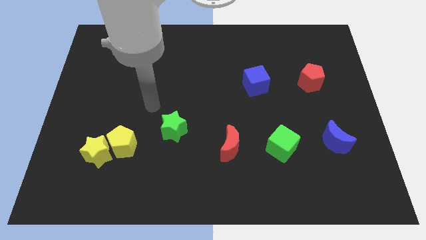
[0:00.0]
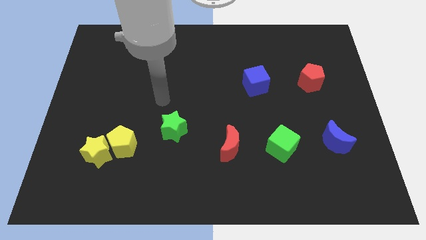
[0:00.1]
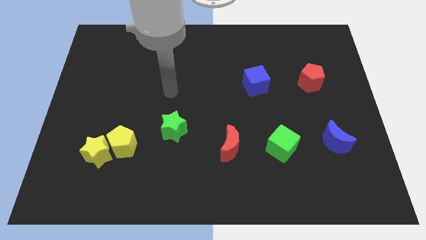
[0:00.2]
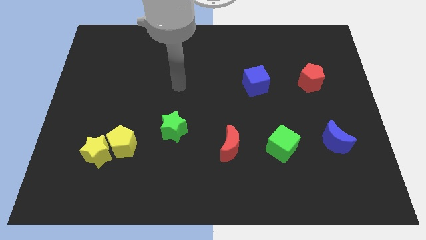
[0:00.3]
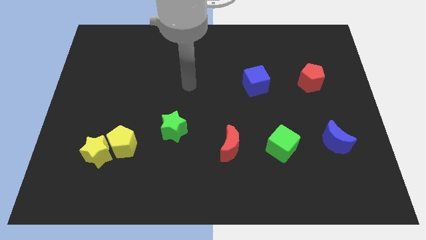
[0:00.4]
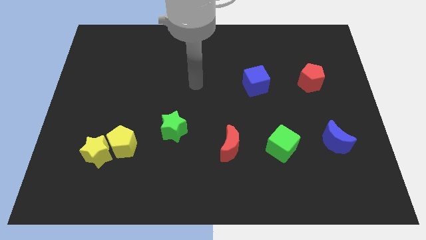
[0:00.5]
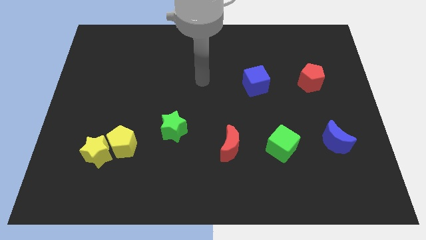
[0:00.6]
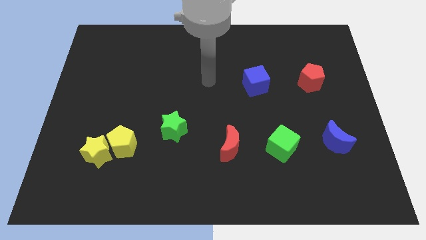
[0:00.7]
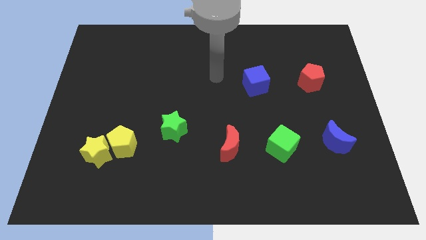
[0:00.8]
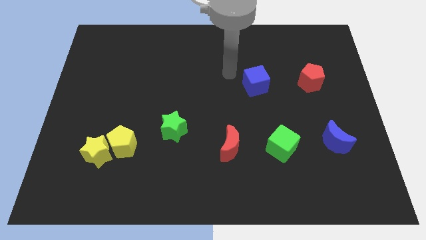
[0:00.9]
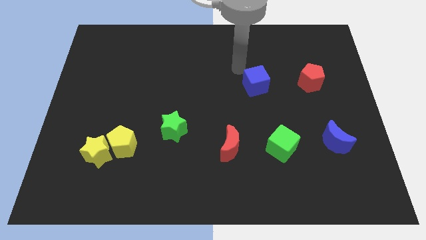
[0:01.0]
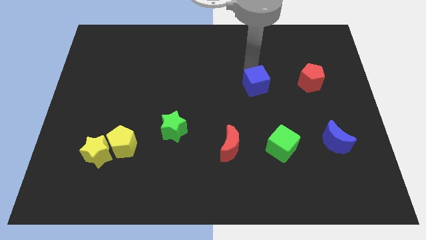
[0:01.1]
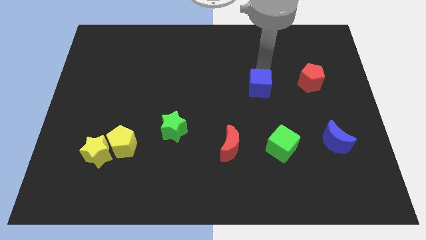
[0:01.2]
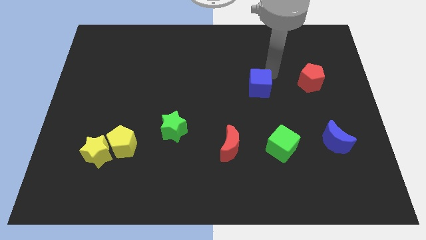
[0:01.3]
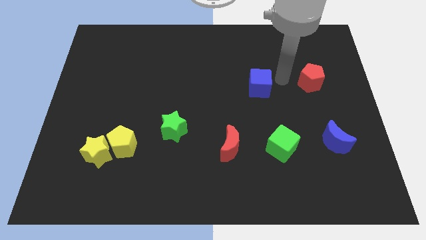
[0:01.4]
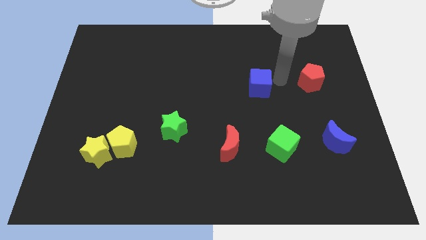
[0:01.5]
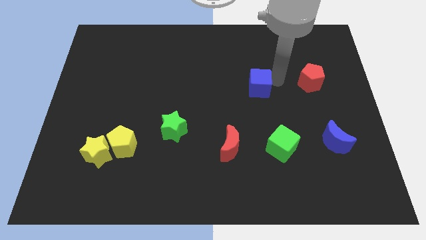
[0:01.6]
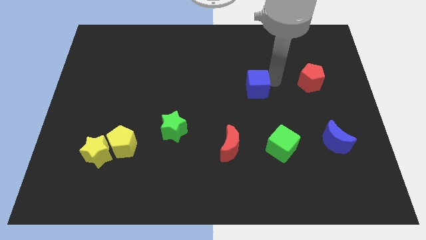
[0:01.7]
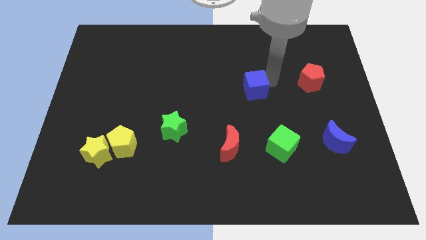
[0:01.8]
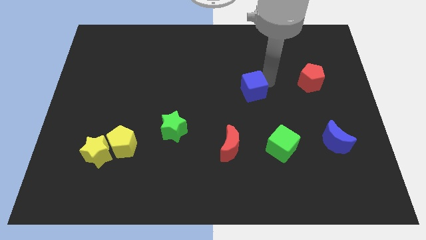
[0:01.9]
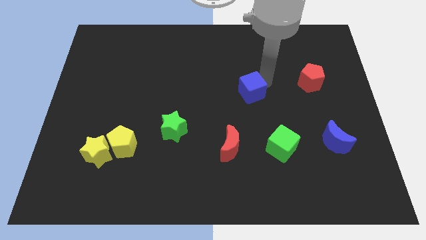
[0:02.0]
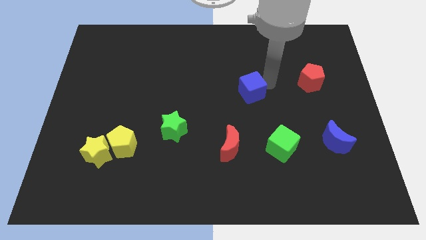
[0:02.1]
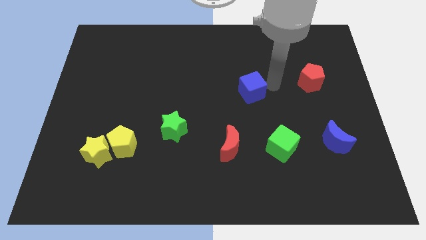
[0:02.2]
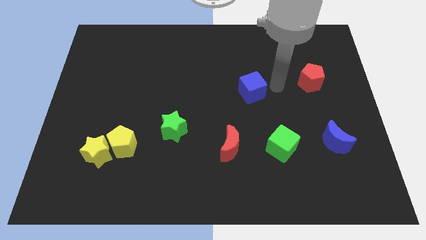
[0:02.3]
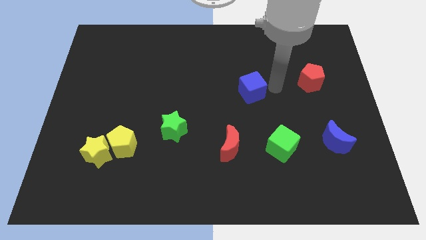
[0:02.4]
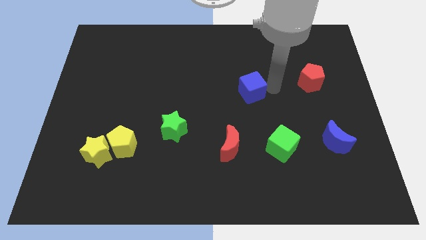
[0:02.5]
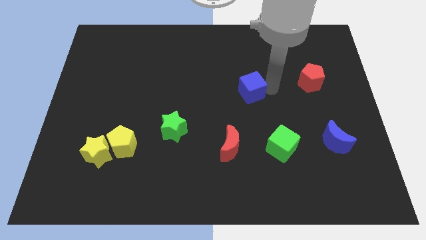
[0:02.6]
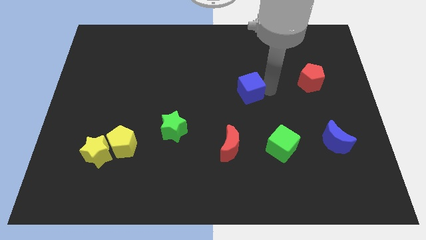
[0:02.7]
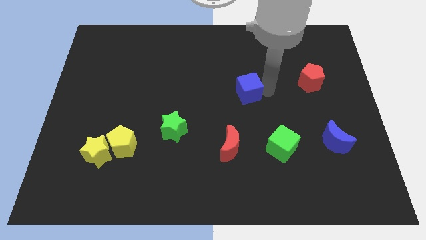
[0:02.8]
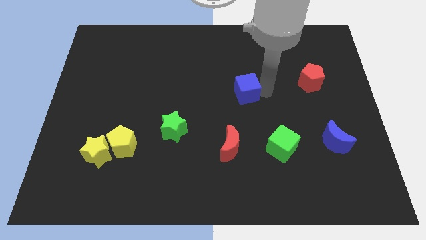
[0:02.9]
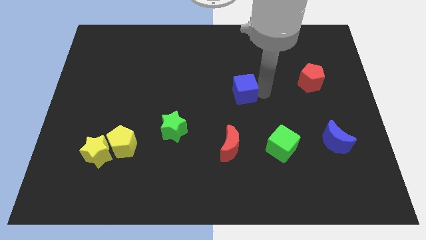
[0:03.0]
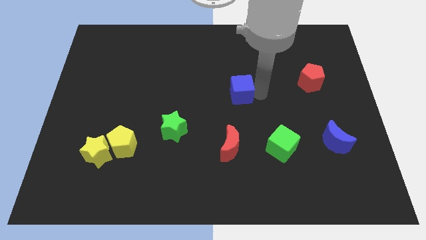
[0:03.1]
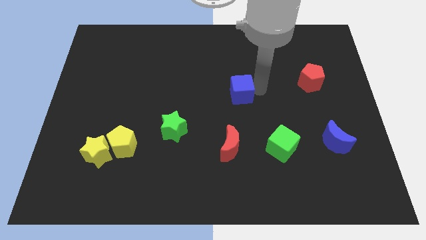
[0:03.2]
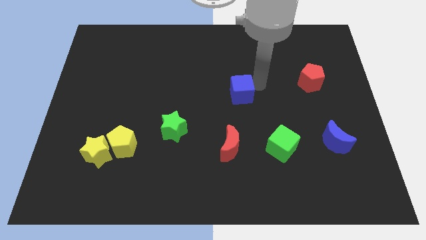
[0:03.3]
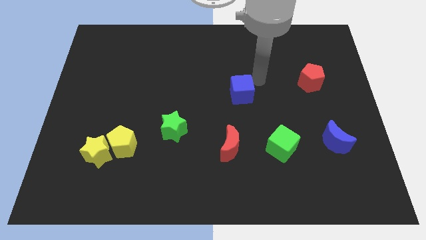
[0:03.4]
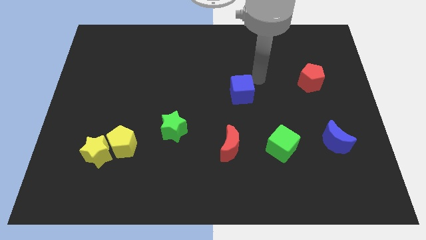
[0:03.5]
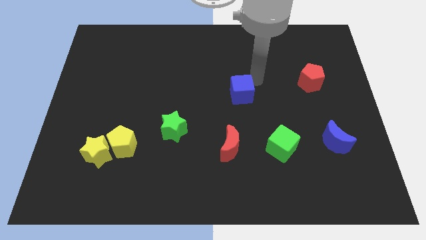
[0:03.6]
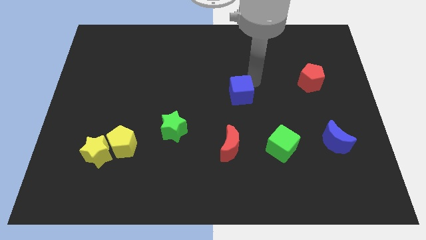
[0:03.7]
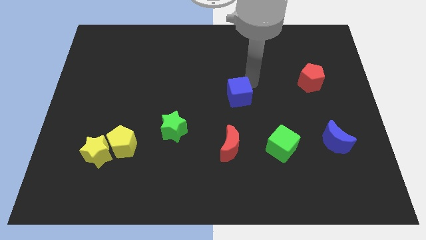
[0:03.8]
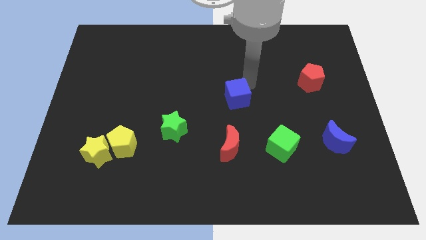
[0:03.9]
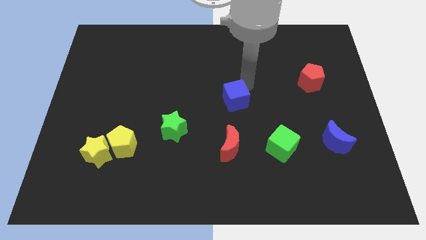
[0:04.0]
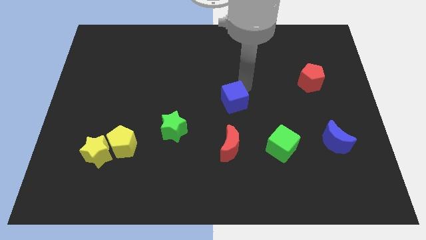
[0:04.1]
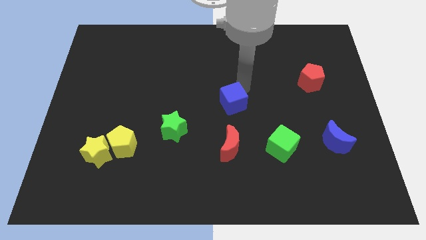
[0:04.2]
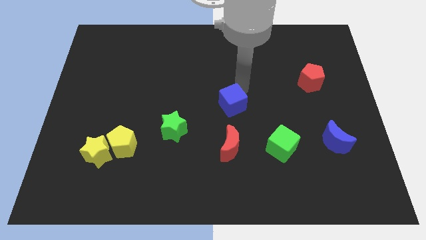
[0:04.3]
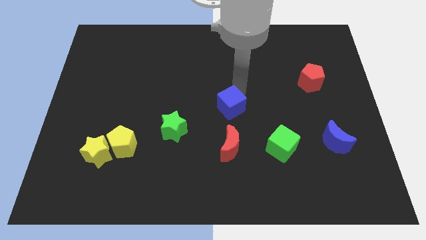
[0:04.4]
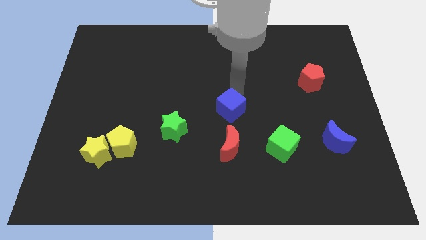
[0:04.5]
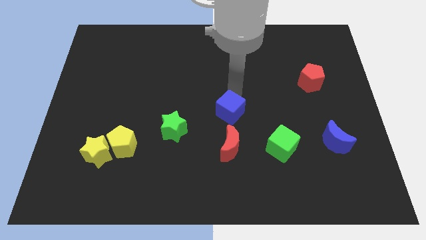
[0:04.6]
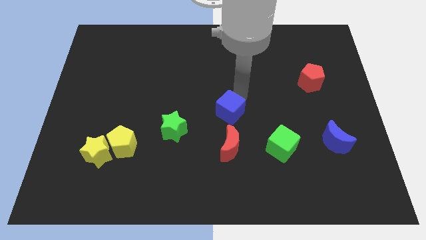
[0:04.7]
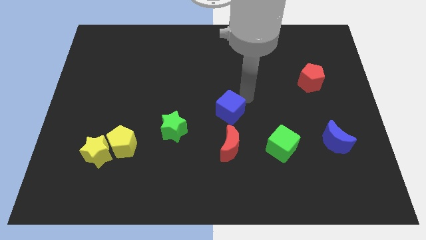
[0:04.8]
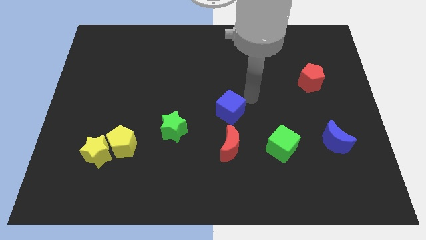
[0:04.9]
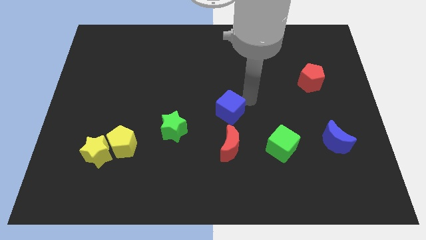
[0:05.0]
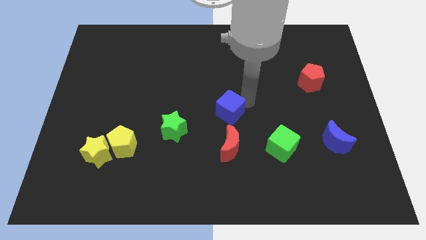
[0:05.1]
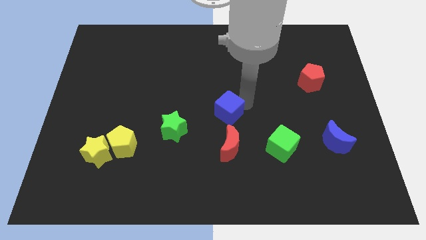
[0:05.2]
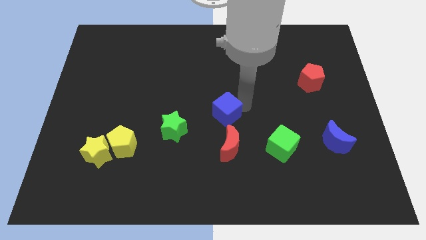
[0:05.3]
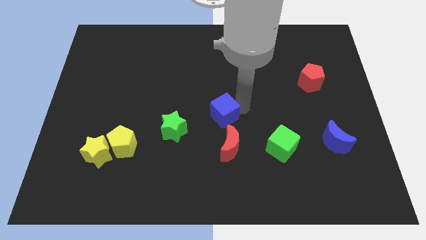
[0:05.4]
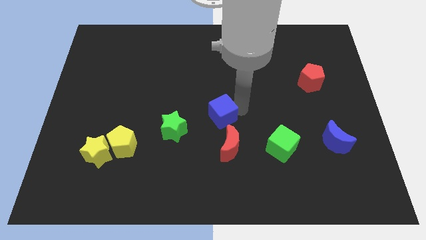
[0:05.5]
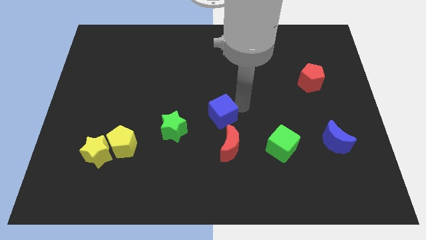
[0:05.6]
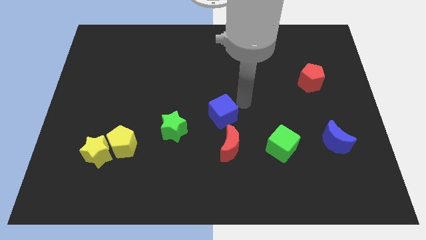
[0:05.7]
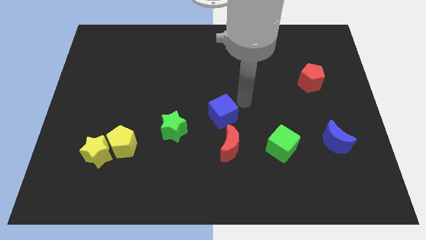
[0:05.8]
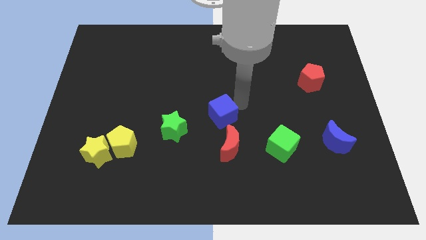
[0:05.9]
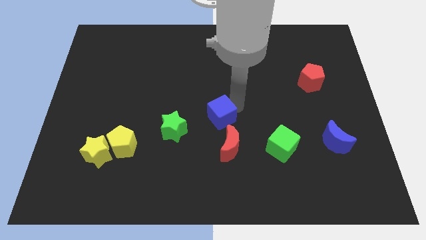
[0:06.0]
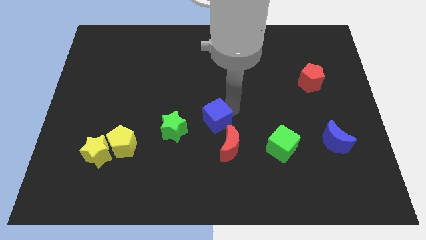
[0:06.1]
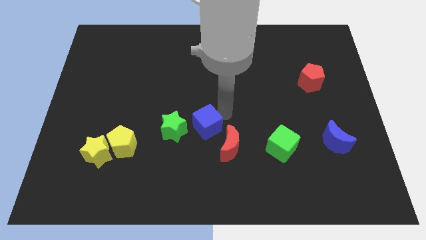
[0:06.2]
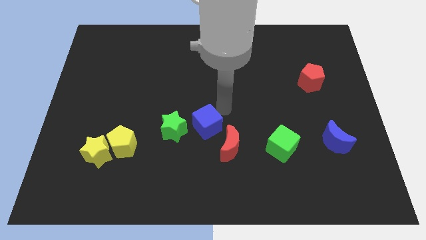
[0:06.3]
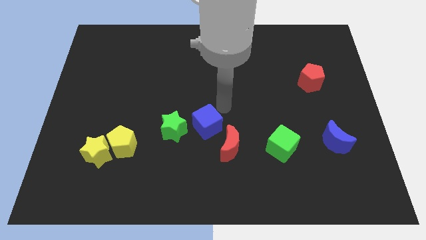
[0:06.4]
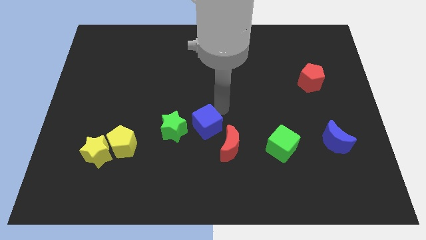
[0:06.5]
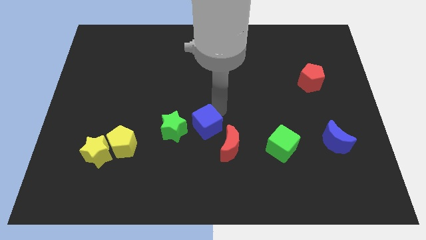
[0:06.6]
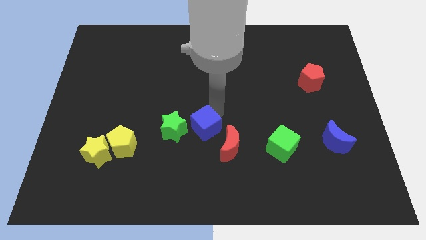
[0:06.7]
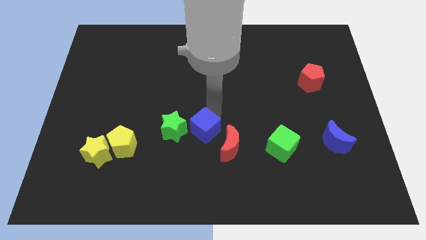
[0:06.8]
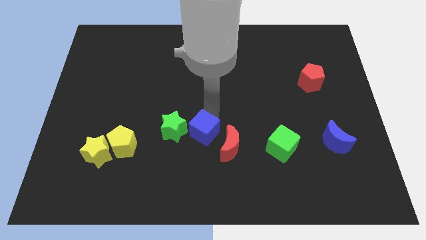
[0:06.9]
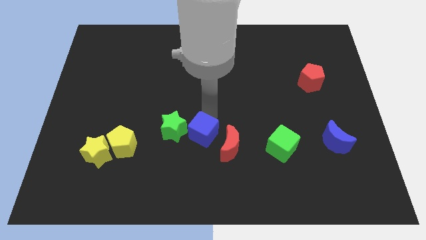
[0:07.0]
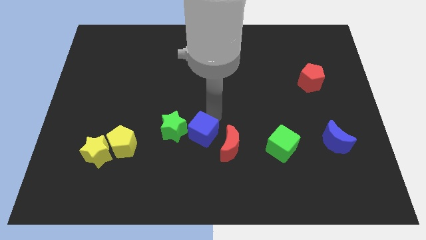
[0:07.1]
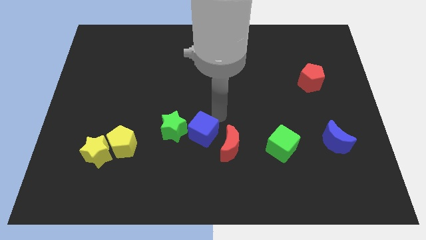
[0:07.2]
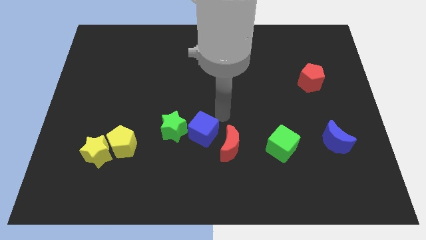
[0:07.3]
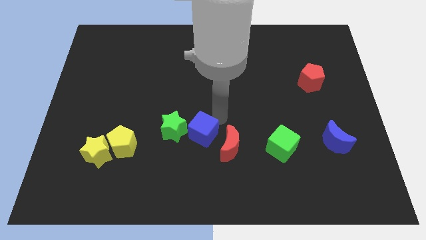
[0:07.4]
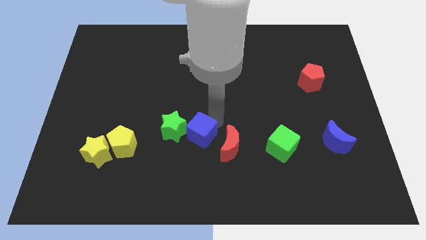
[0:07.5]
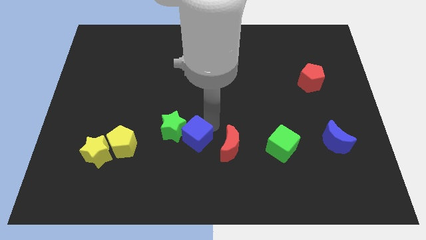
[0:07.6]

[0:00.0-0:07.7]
push the blue cube downwards and then to the left

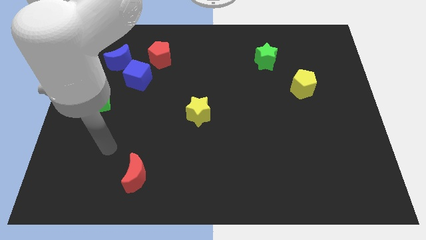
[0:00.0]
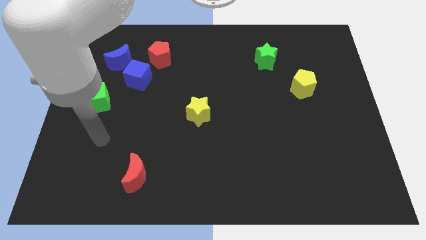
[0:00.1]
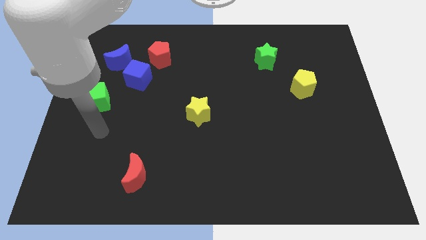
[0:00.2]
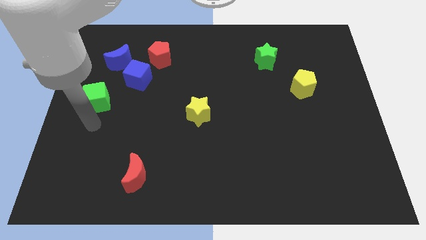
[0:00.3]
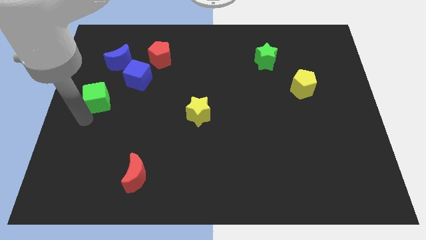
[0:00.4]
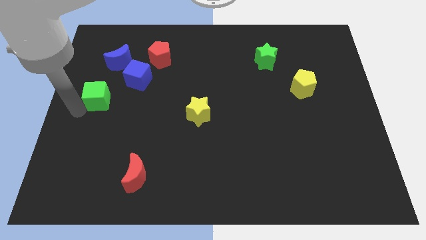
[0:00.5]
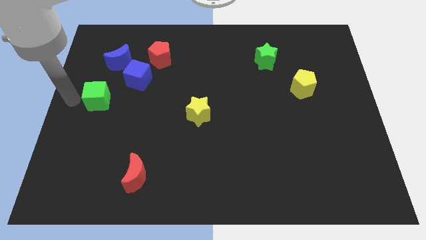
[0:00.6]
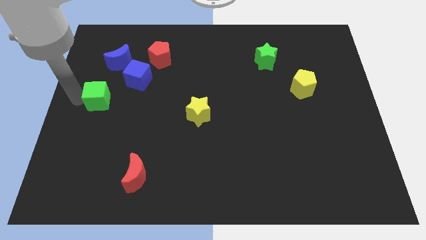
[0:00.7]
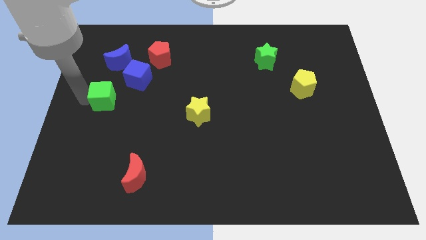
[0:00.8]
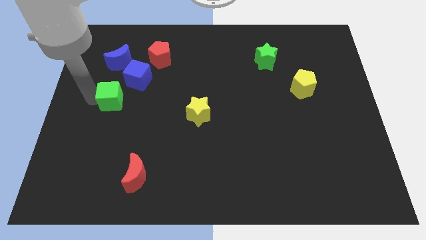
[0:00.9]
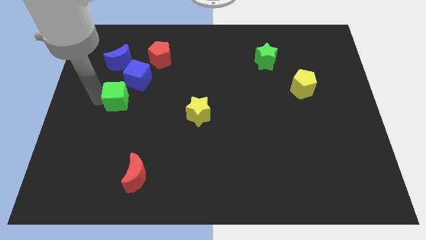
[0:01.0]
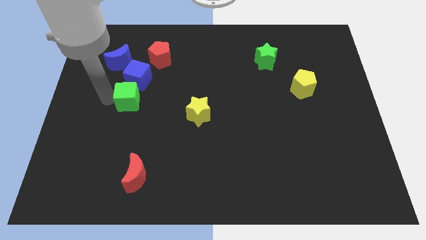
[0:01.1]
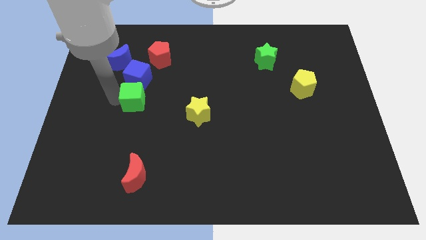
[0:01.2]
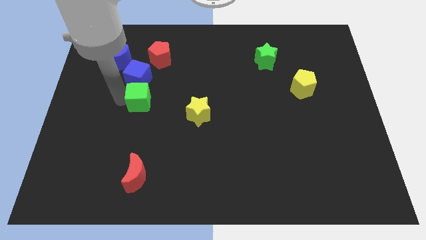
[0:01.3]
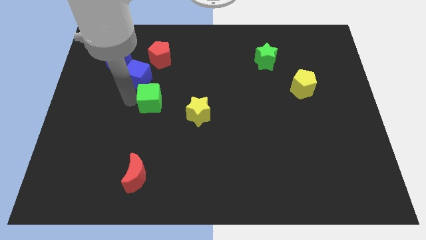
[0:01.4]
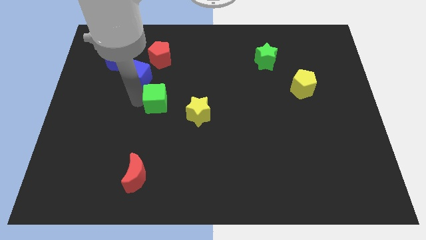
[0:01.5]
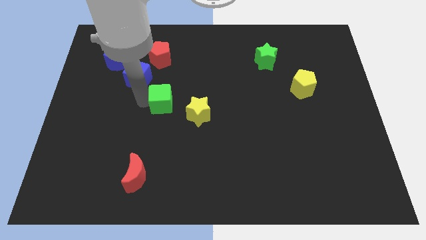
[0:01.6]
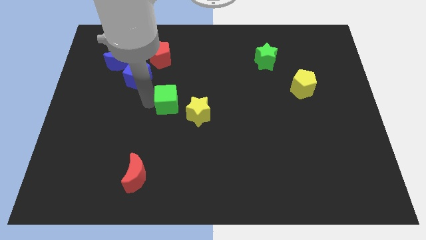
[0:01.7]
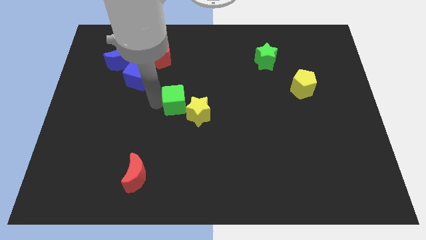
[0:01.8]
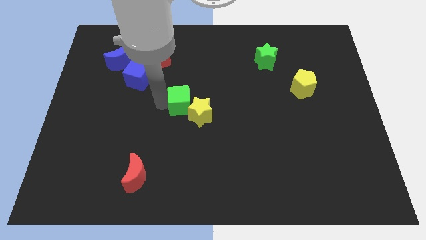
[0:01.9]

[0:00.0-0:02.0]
move the green cube to the right
